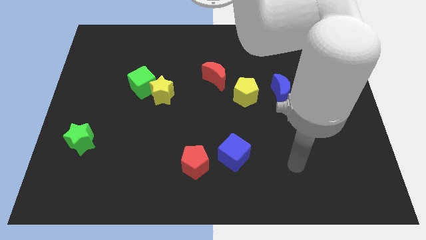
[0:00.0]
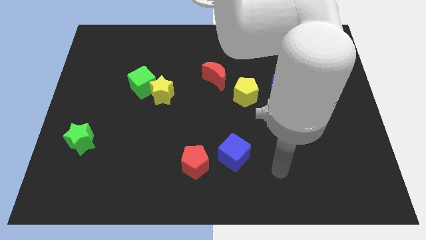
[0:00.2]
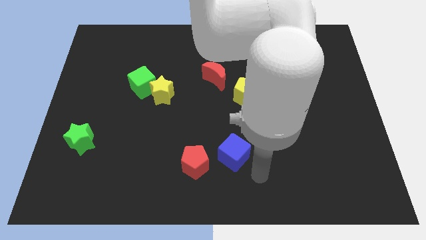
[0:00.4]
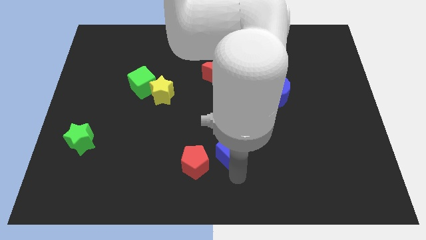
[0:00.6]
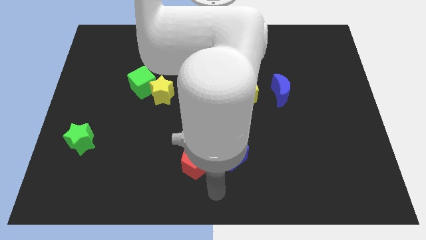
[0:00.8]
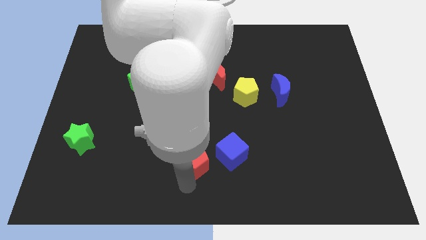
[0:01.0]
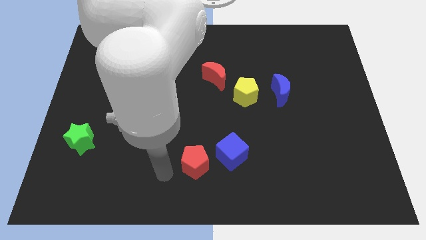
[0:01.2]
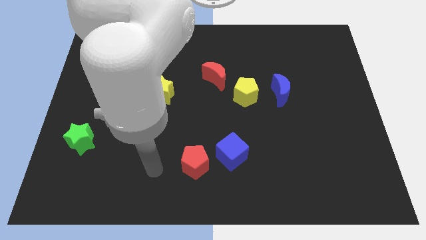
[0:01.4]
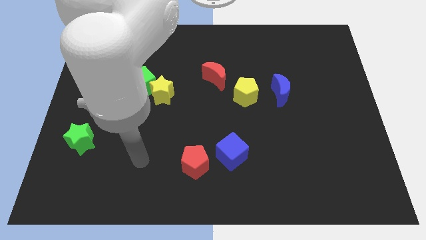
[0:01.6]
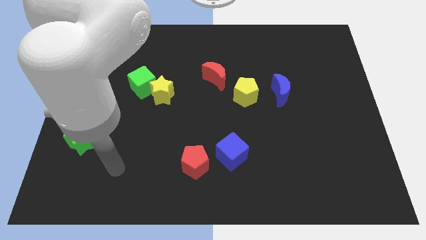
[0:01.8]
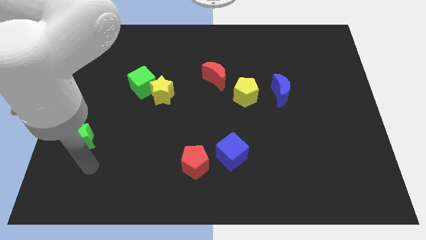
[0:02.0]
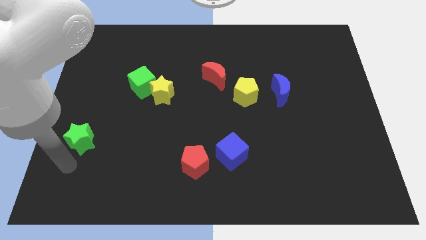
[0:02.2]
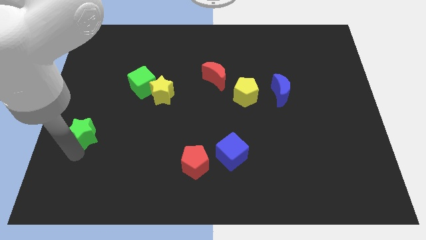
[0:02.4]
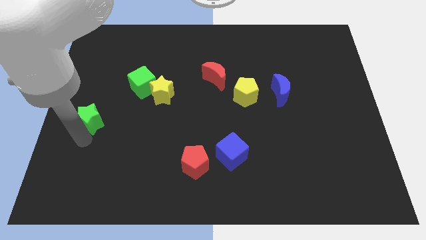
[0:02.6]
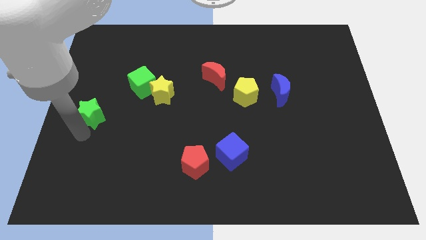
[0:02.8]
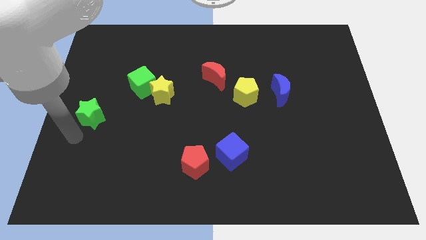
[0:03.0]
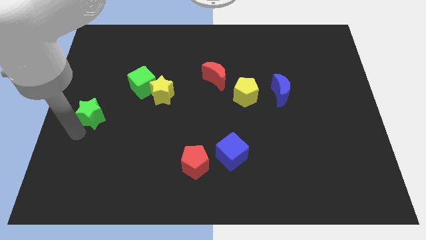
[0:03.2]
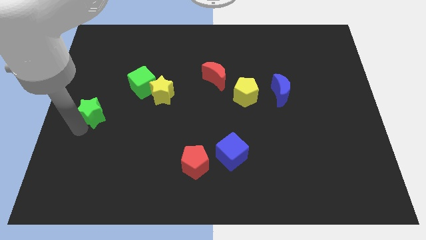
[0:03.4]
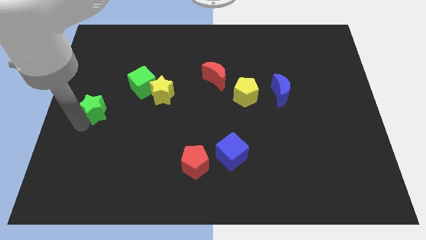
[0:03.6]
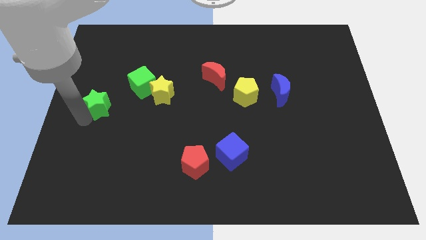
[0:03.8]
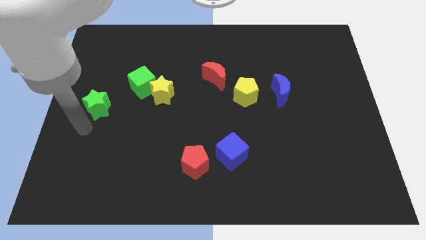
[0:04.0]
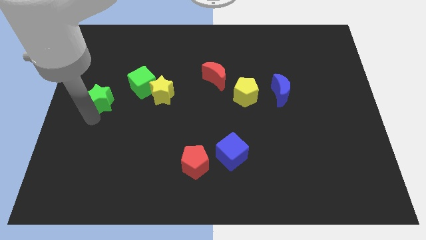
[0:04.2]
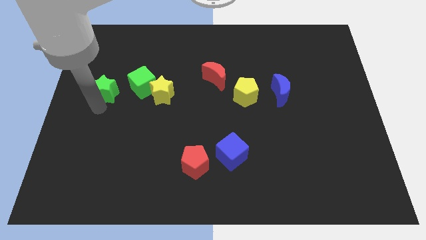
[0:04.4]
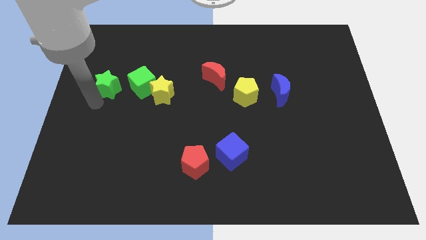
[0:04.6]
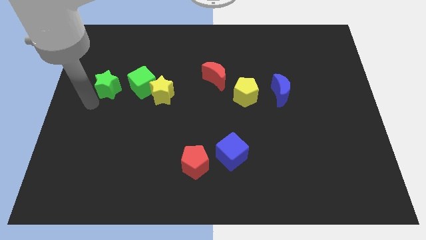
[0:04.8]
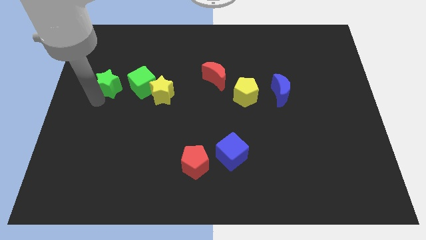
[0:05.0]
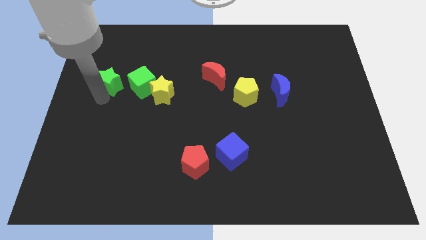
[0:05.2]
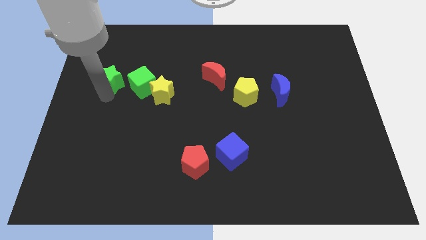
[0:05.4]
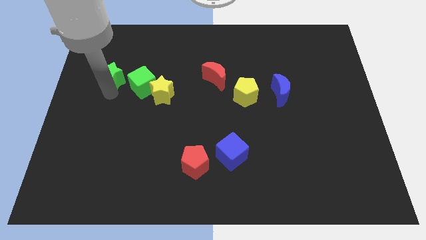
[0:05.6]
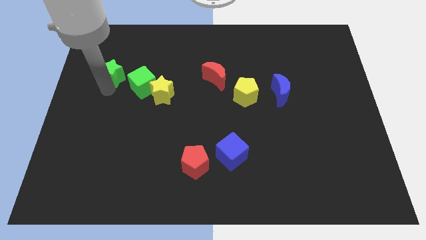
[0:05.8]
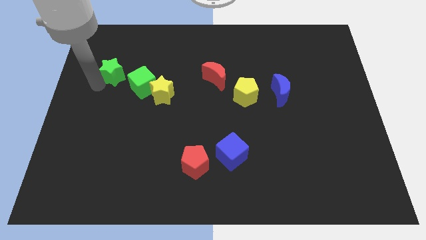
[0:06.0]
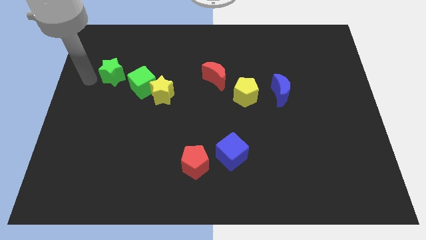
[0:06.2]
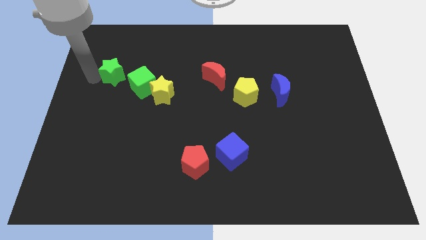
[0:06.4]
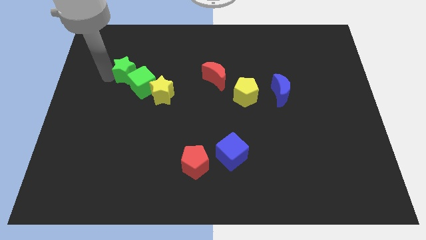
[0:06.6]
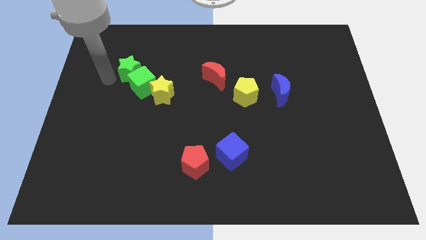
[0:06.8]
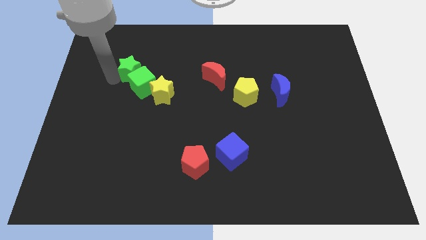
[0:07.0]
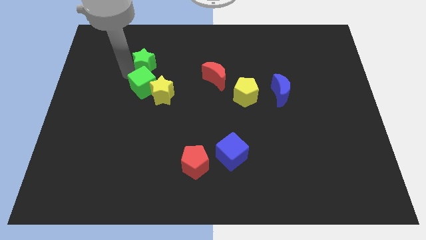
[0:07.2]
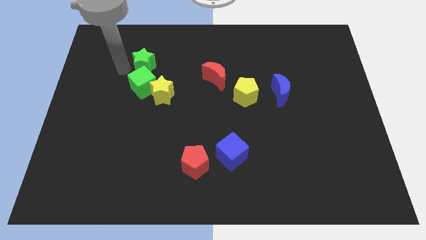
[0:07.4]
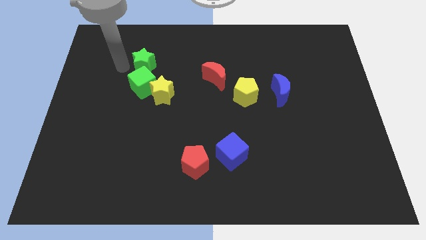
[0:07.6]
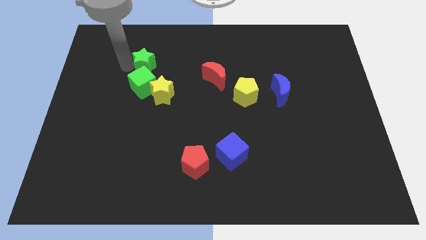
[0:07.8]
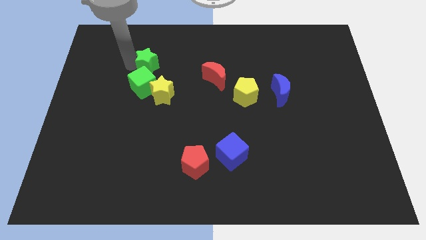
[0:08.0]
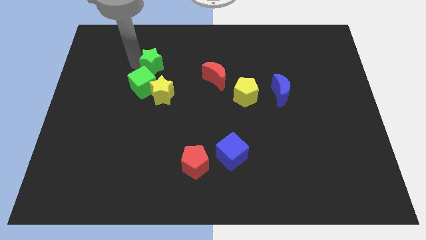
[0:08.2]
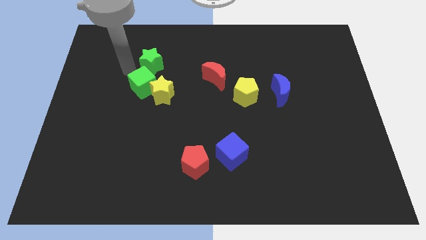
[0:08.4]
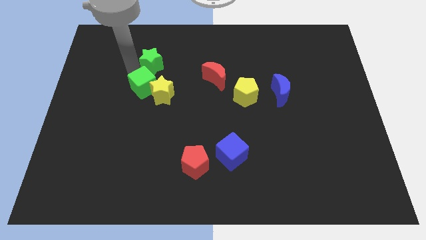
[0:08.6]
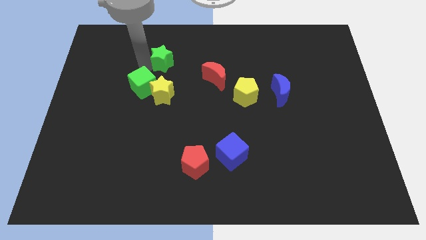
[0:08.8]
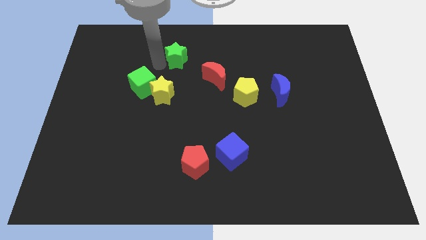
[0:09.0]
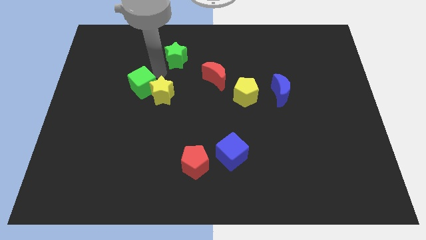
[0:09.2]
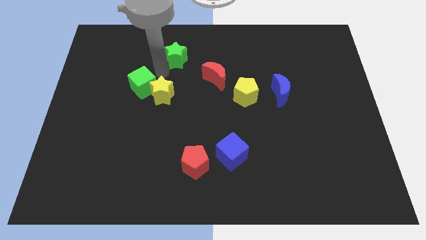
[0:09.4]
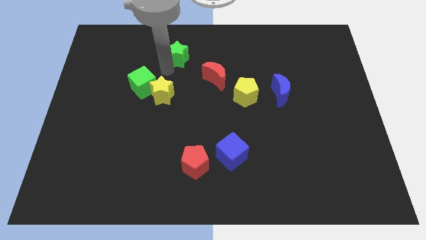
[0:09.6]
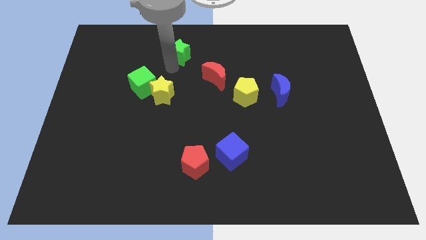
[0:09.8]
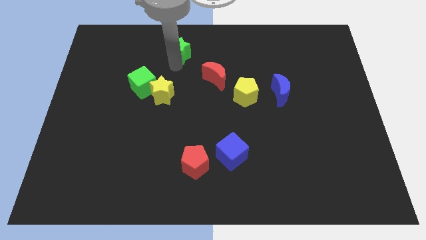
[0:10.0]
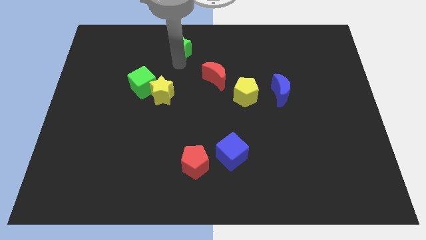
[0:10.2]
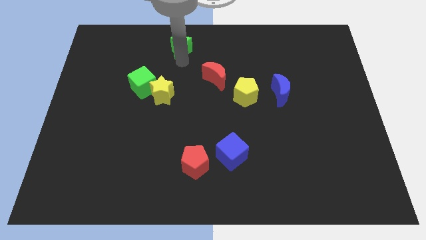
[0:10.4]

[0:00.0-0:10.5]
move the green star to the top side

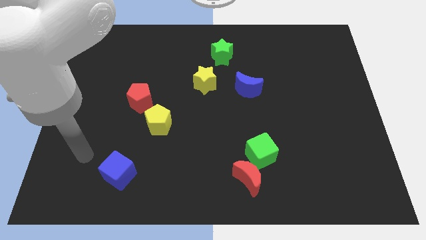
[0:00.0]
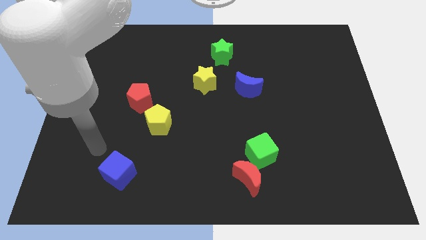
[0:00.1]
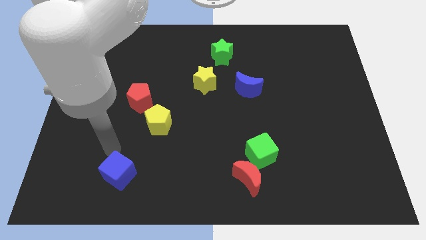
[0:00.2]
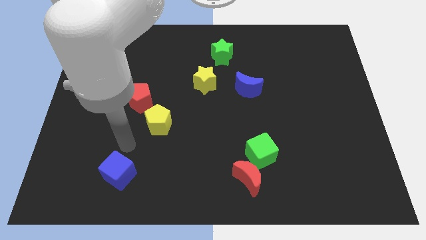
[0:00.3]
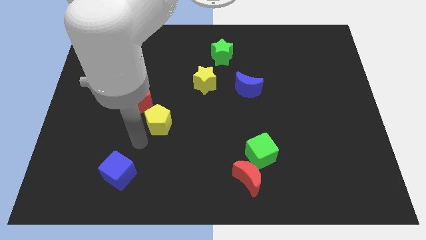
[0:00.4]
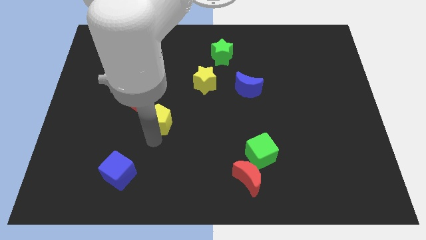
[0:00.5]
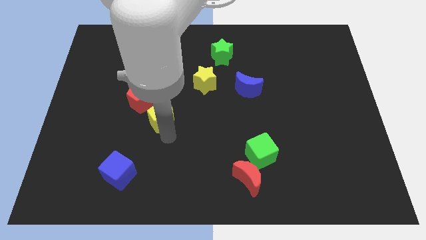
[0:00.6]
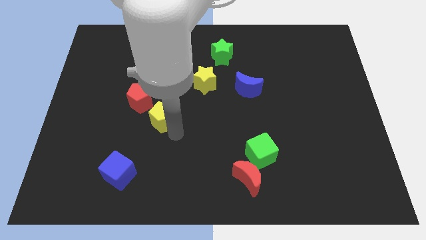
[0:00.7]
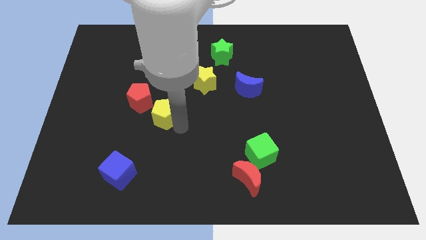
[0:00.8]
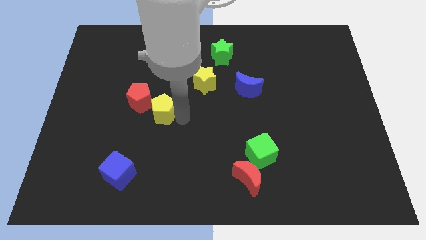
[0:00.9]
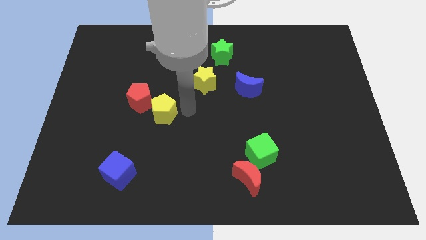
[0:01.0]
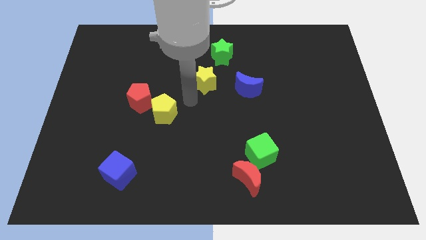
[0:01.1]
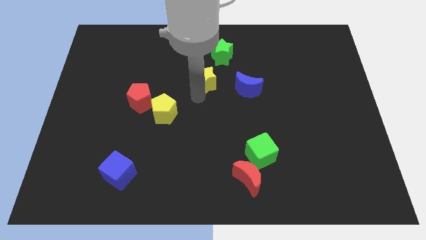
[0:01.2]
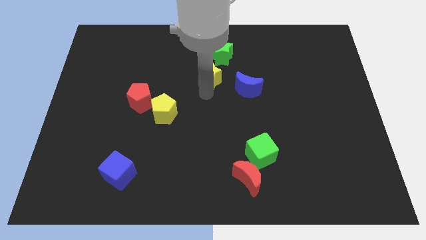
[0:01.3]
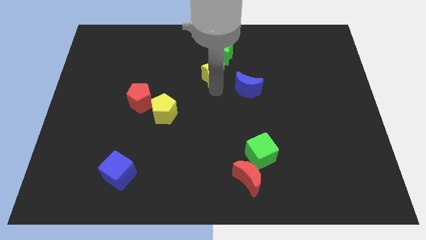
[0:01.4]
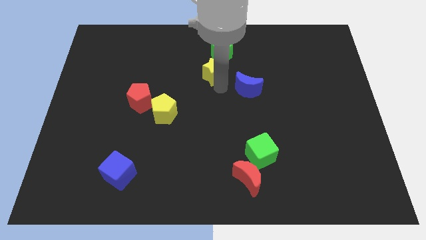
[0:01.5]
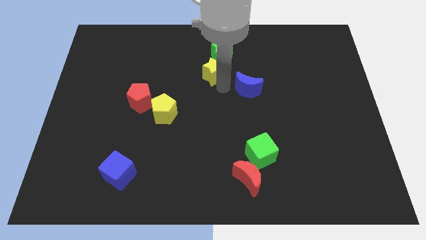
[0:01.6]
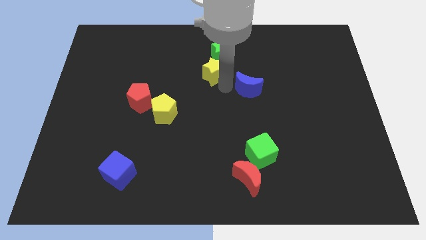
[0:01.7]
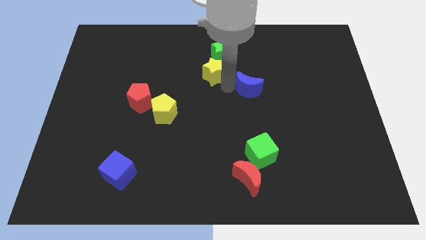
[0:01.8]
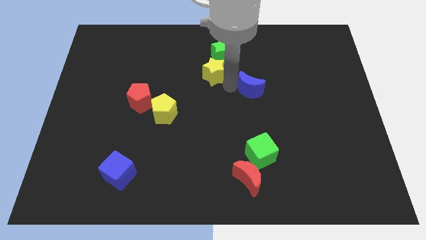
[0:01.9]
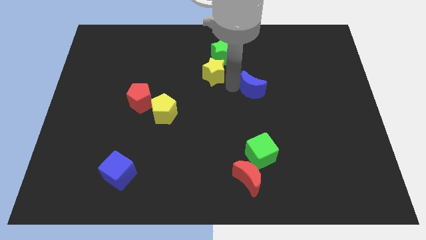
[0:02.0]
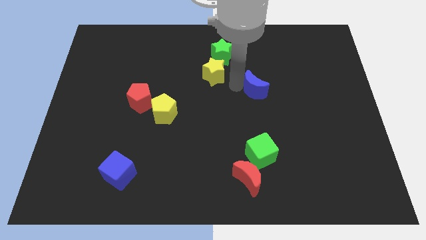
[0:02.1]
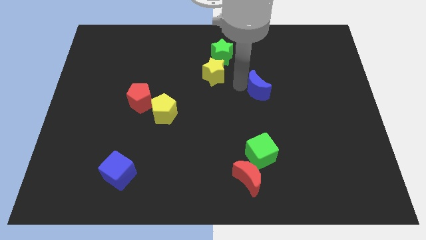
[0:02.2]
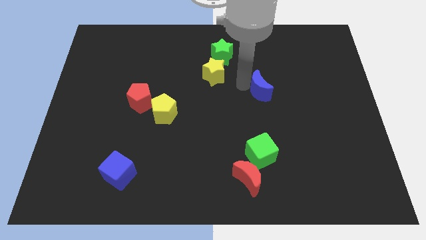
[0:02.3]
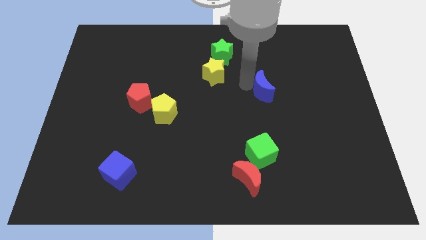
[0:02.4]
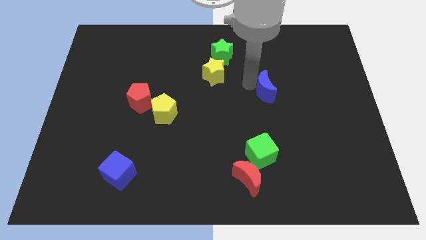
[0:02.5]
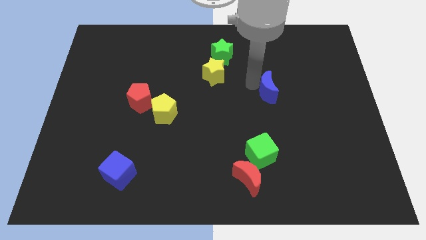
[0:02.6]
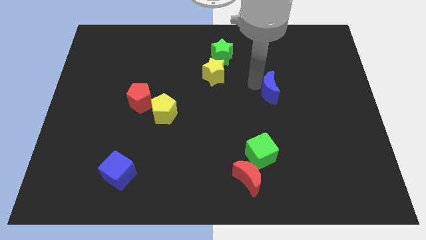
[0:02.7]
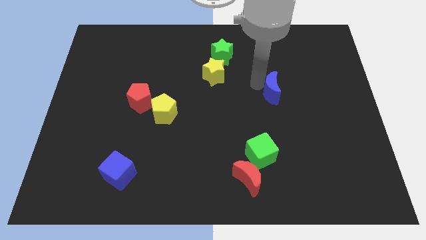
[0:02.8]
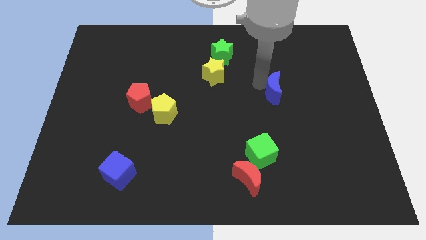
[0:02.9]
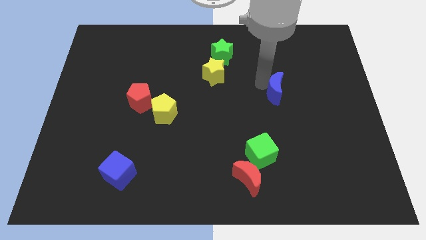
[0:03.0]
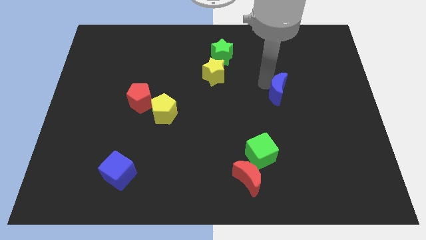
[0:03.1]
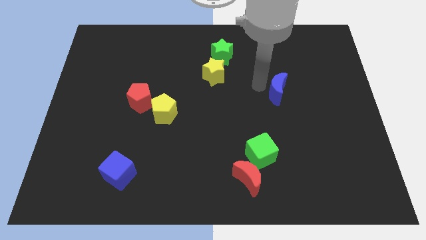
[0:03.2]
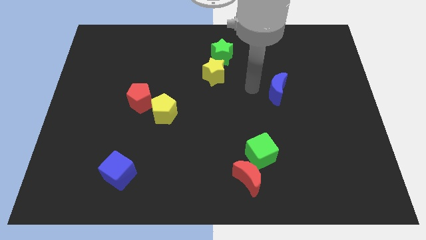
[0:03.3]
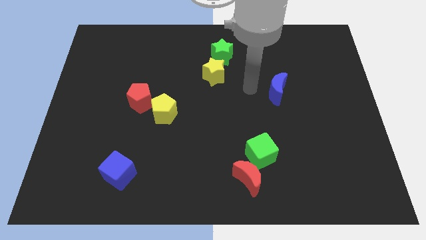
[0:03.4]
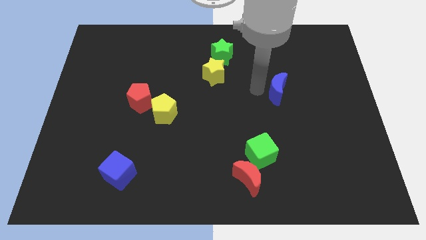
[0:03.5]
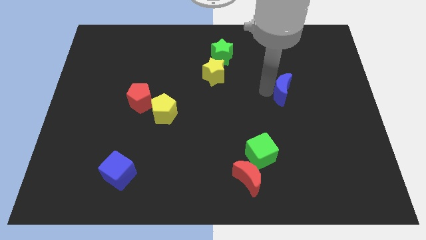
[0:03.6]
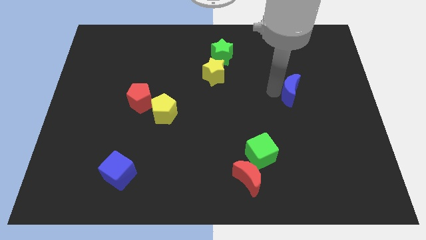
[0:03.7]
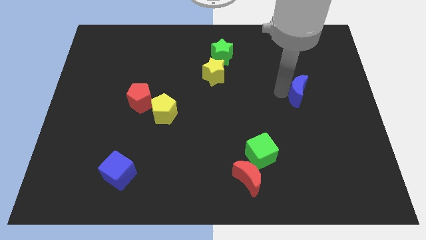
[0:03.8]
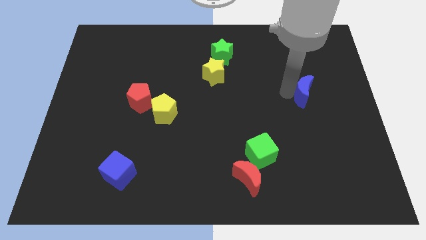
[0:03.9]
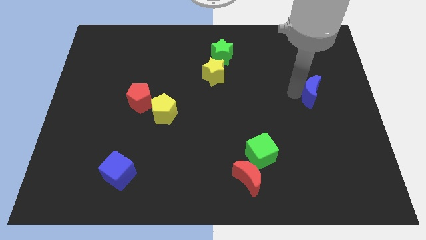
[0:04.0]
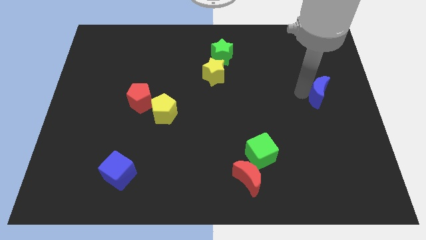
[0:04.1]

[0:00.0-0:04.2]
put the blue moon to the center right
